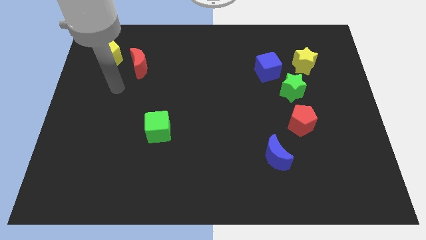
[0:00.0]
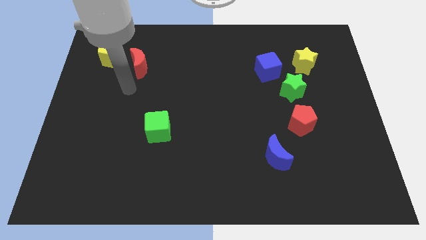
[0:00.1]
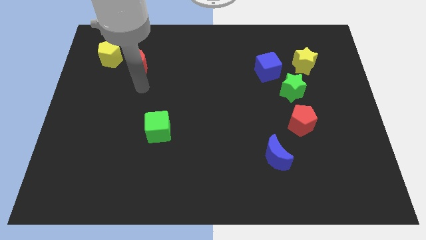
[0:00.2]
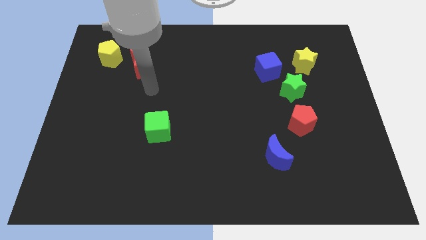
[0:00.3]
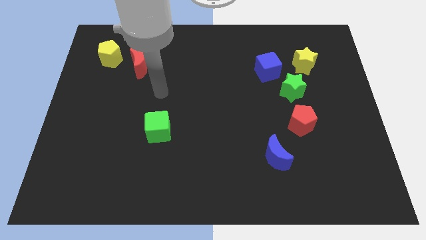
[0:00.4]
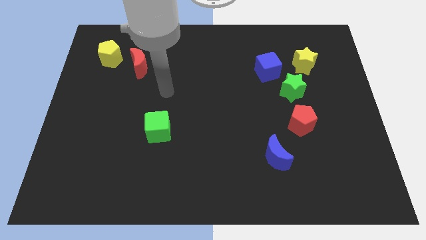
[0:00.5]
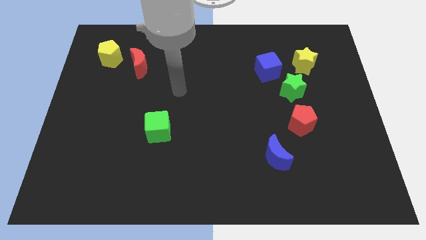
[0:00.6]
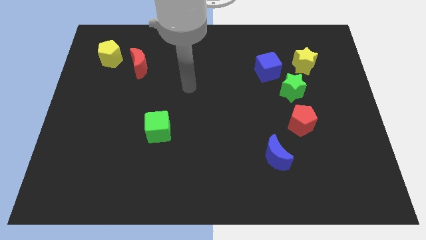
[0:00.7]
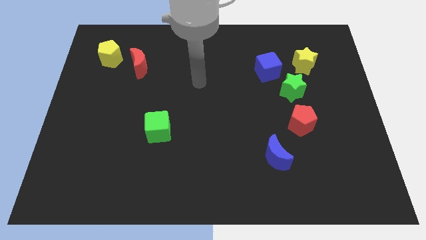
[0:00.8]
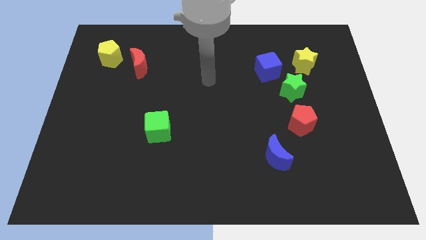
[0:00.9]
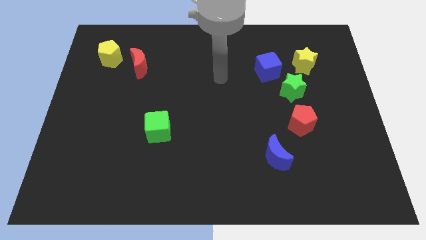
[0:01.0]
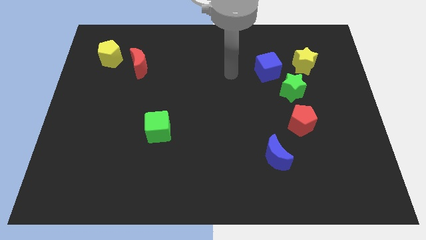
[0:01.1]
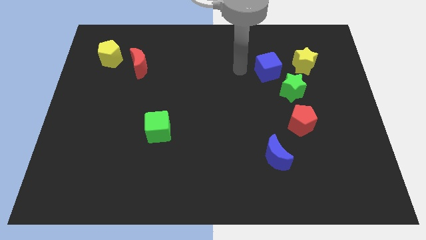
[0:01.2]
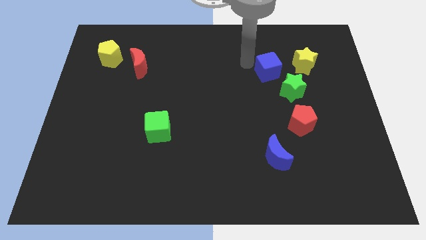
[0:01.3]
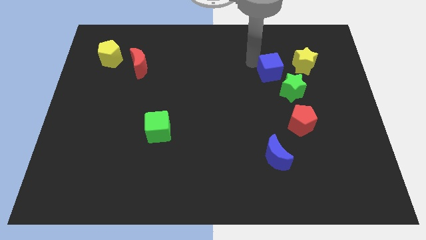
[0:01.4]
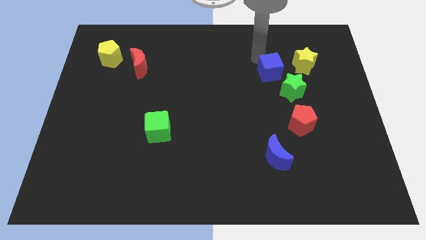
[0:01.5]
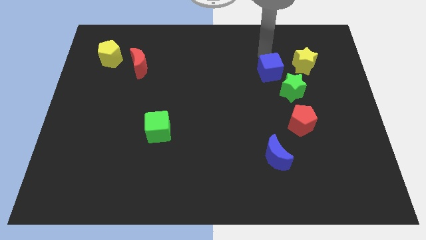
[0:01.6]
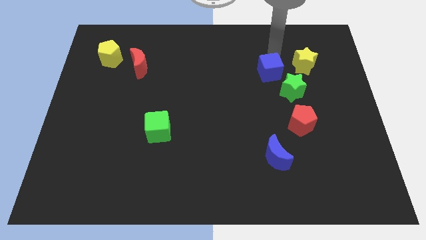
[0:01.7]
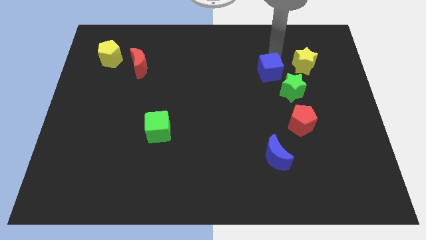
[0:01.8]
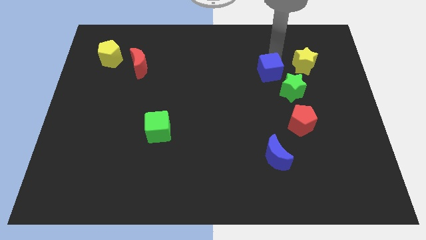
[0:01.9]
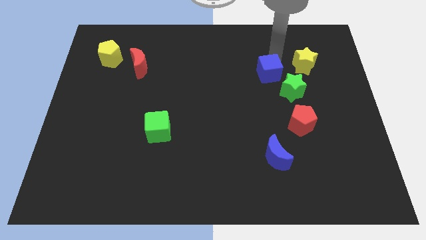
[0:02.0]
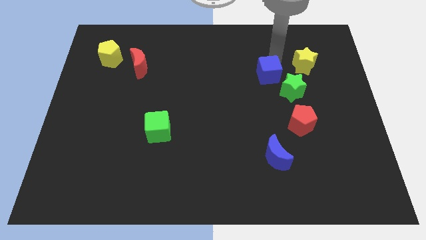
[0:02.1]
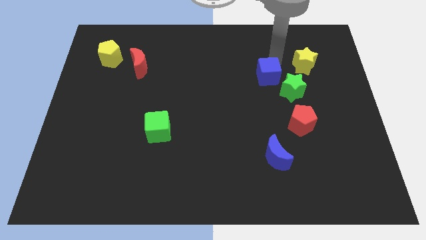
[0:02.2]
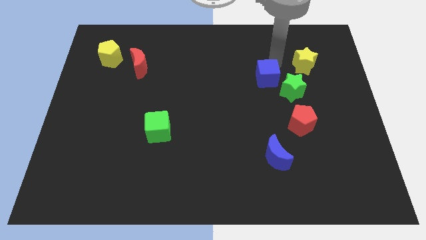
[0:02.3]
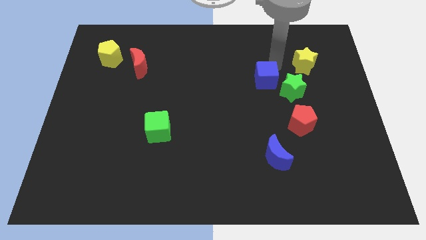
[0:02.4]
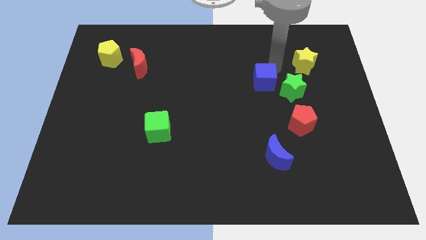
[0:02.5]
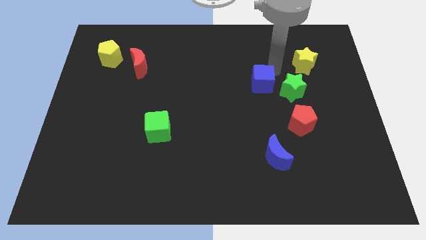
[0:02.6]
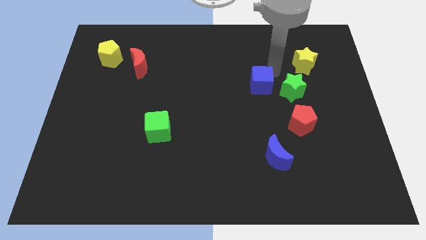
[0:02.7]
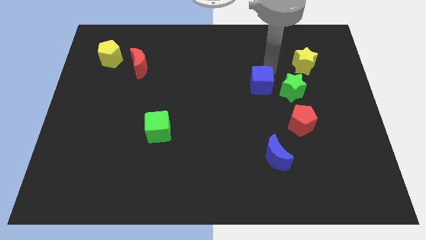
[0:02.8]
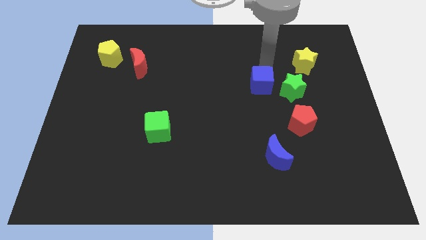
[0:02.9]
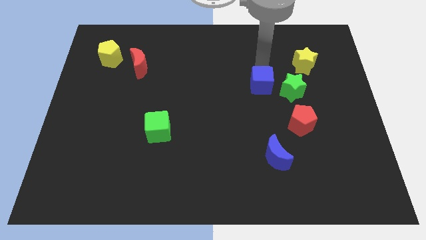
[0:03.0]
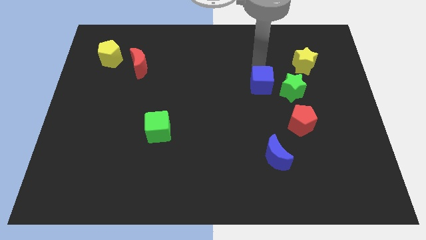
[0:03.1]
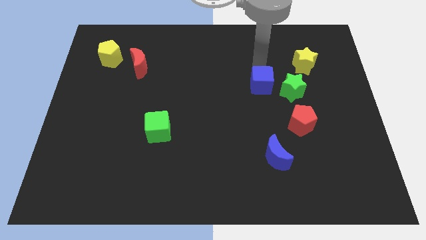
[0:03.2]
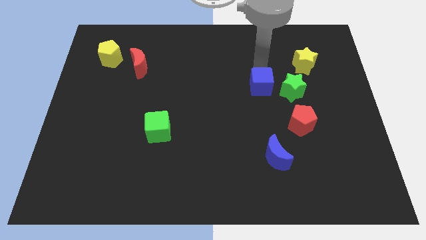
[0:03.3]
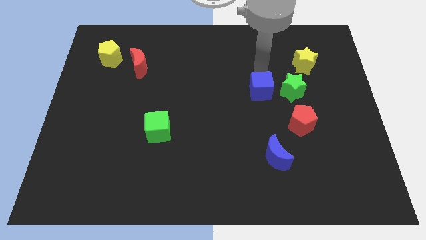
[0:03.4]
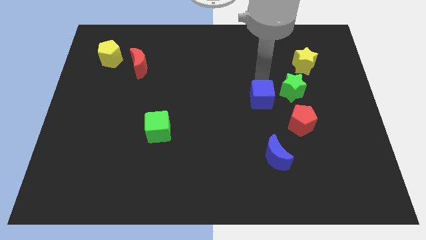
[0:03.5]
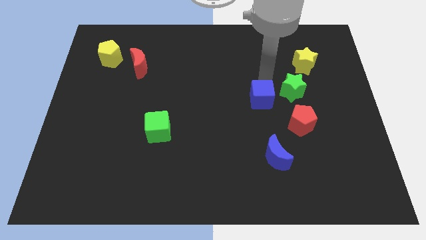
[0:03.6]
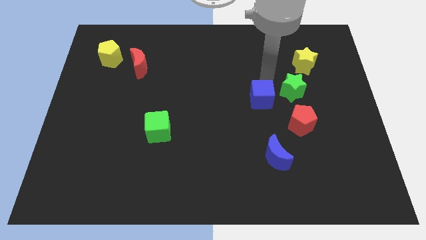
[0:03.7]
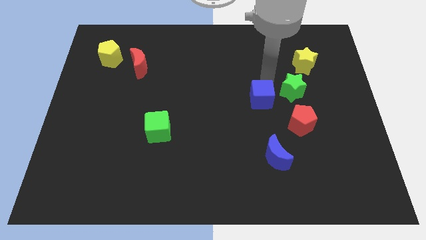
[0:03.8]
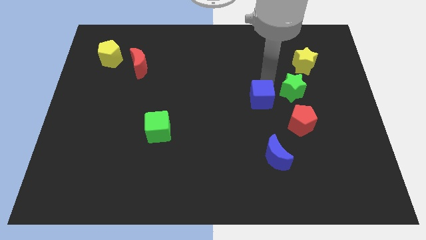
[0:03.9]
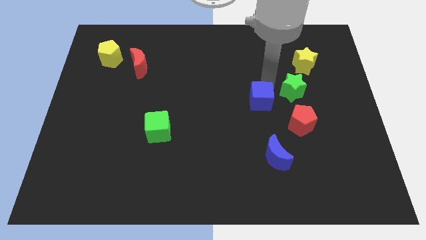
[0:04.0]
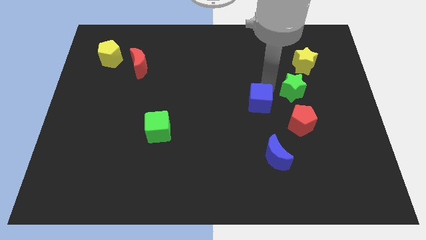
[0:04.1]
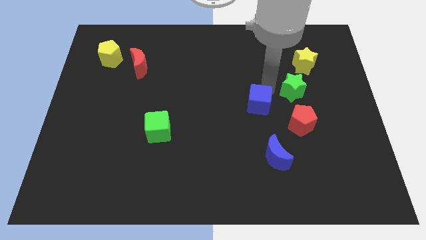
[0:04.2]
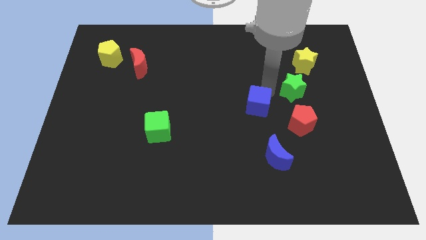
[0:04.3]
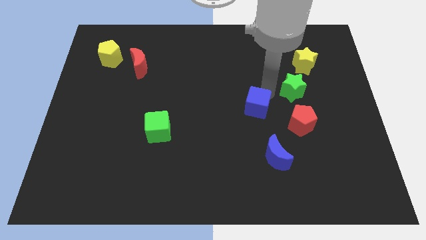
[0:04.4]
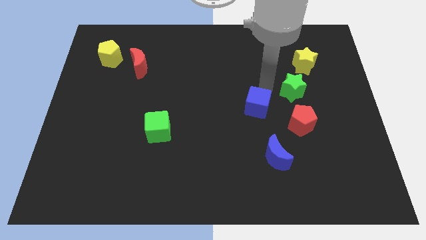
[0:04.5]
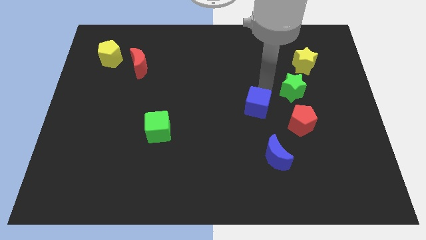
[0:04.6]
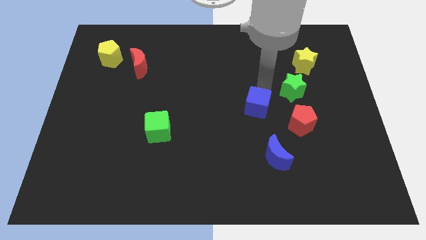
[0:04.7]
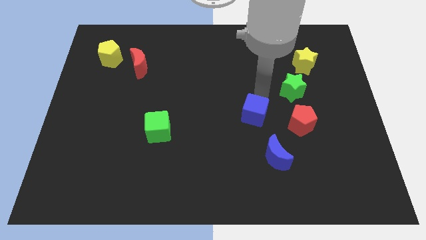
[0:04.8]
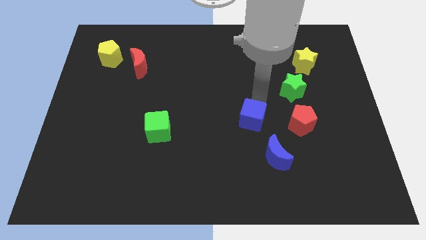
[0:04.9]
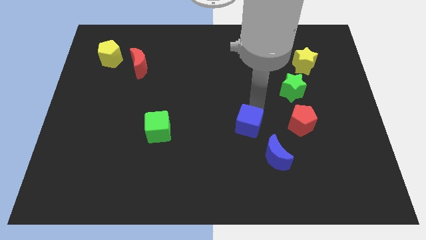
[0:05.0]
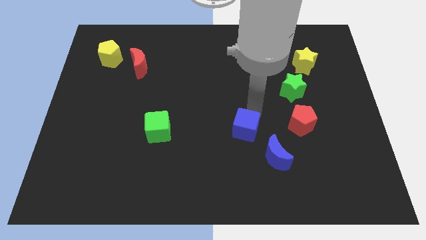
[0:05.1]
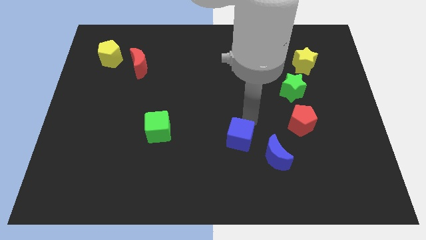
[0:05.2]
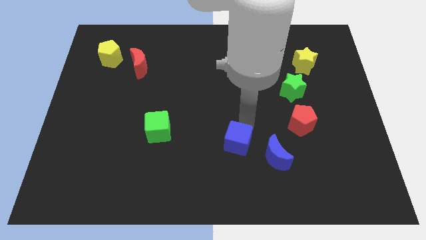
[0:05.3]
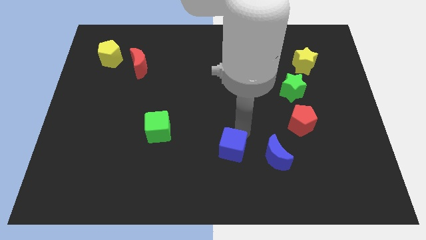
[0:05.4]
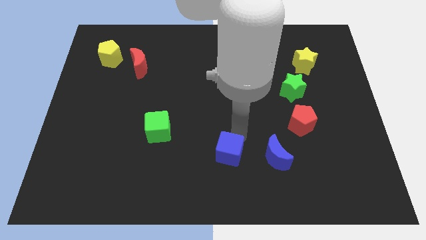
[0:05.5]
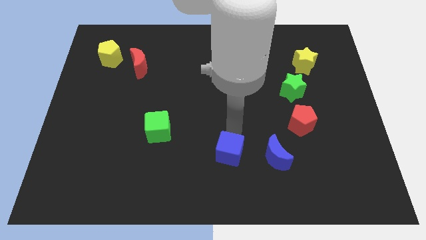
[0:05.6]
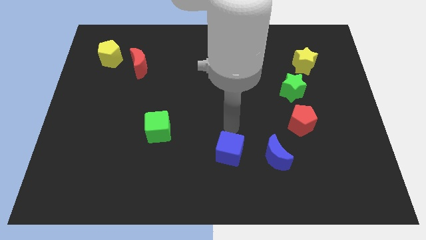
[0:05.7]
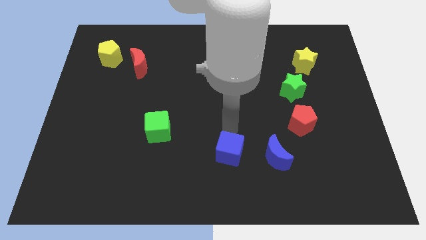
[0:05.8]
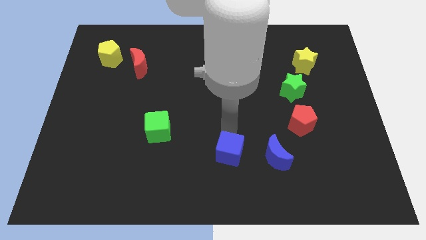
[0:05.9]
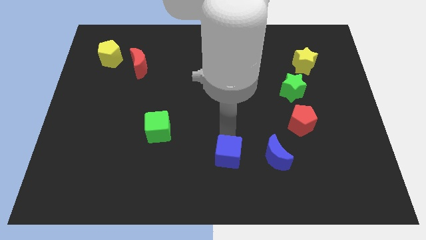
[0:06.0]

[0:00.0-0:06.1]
put the blue cube to the bottom side

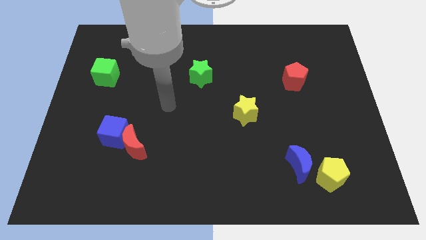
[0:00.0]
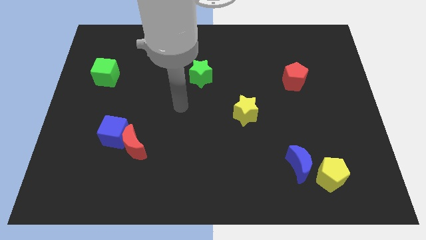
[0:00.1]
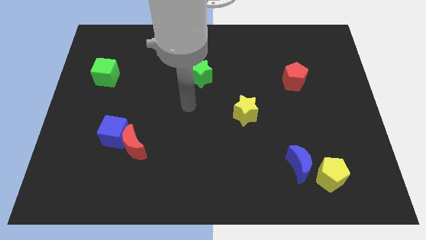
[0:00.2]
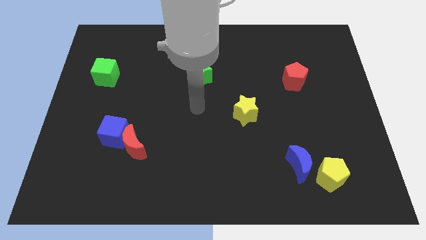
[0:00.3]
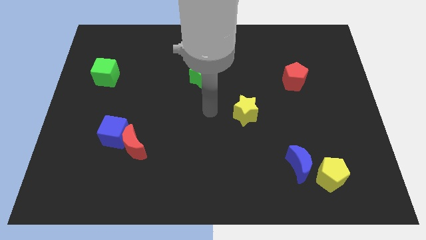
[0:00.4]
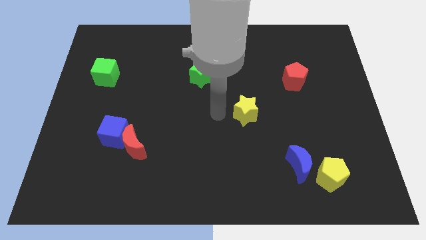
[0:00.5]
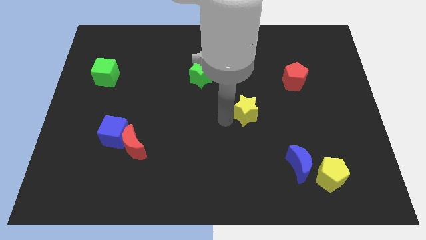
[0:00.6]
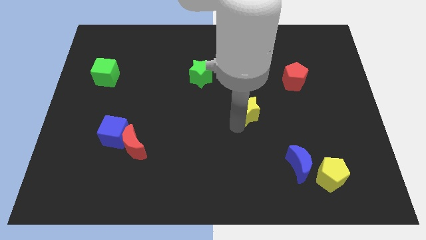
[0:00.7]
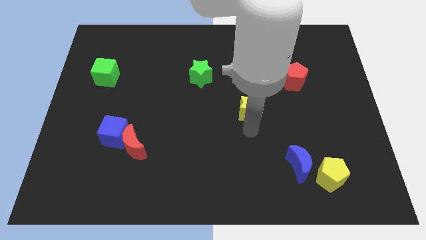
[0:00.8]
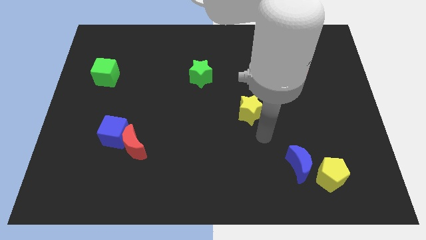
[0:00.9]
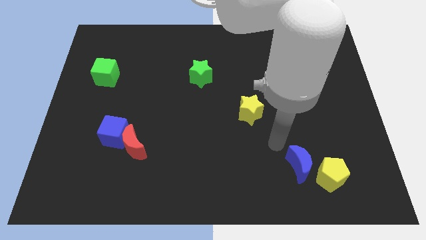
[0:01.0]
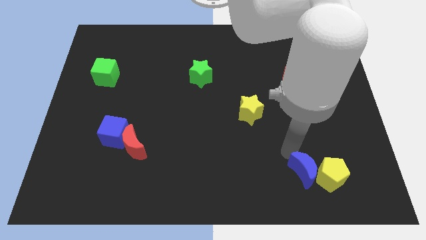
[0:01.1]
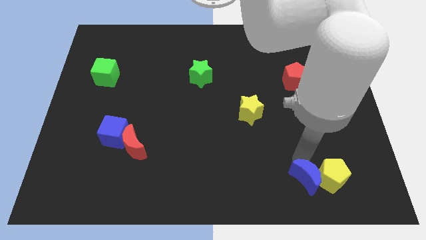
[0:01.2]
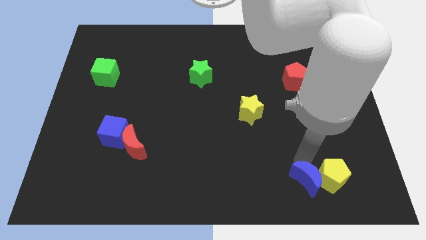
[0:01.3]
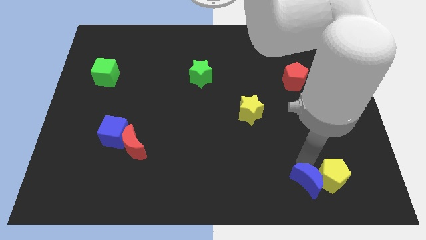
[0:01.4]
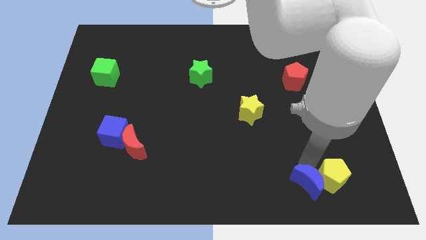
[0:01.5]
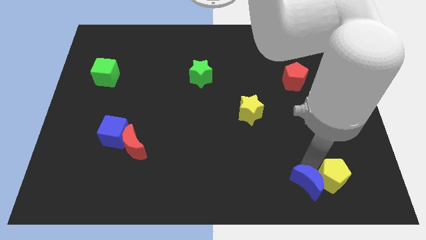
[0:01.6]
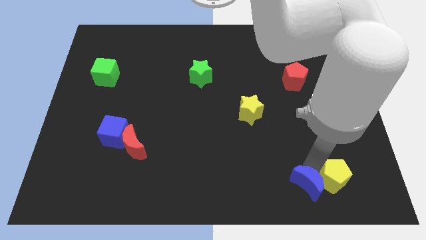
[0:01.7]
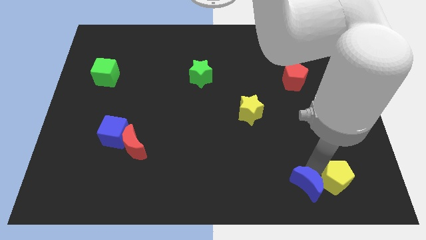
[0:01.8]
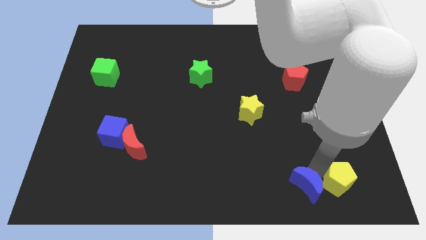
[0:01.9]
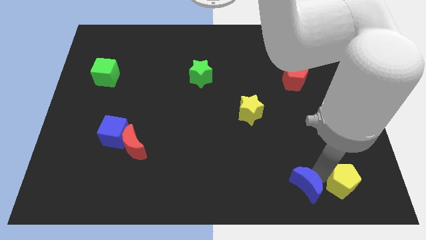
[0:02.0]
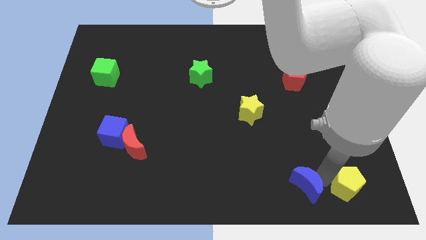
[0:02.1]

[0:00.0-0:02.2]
push the yellow pentagon to the lower right corner
